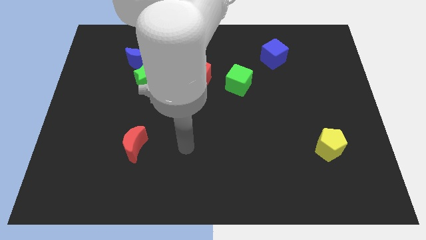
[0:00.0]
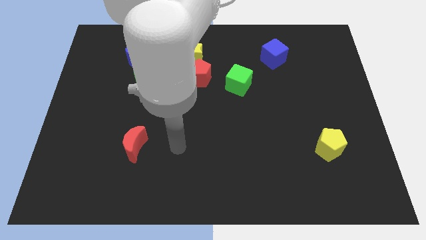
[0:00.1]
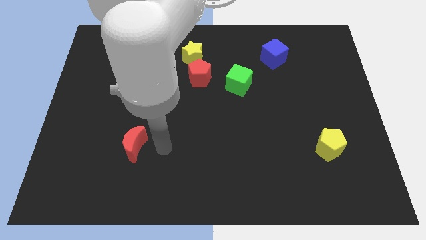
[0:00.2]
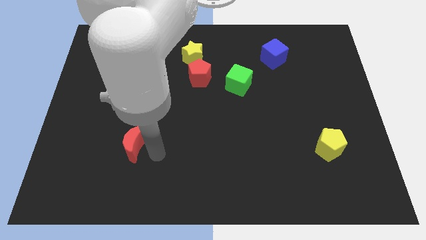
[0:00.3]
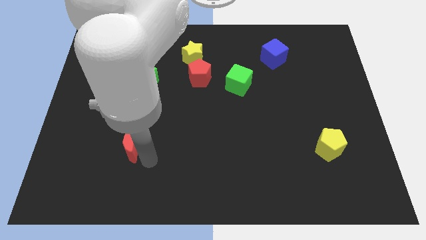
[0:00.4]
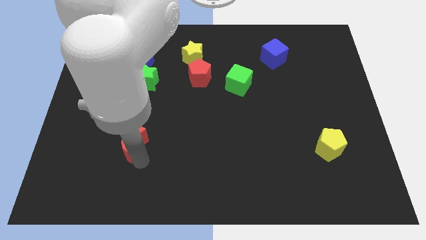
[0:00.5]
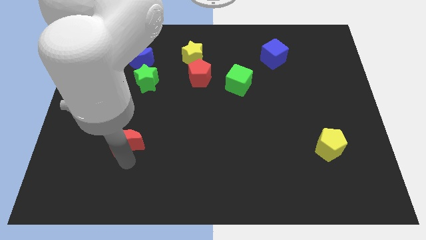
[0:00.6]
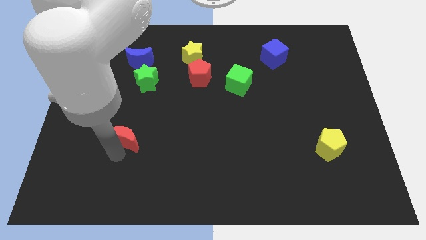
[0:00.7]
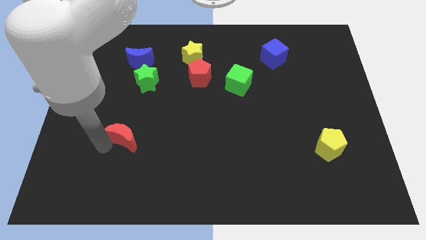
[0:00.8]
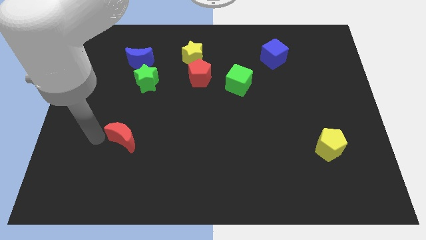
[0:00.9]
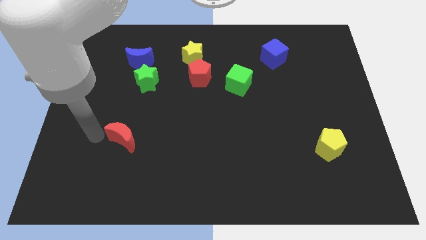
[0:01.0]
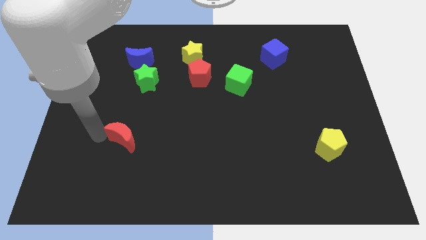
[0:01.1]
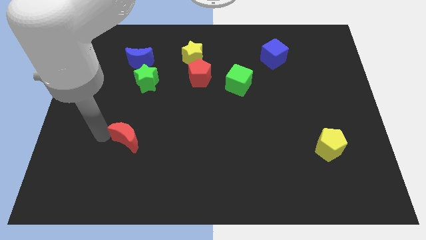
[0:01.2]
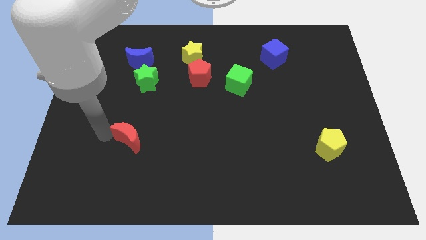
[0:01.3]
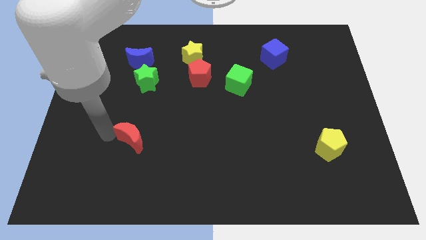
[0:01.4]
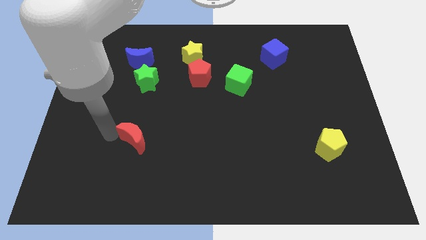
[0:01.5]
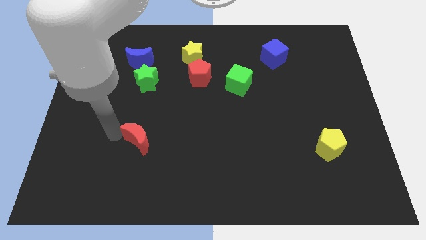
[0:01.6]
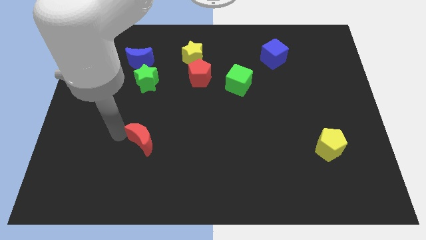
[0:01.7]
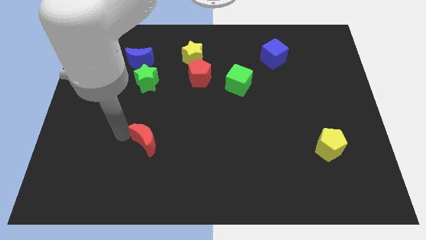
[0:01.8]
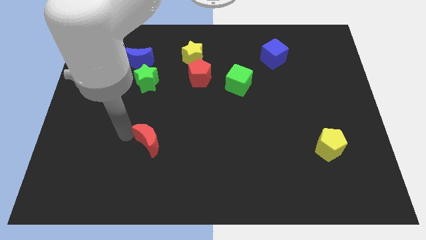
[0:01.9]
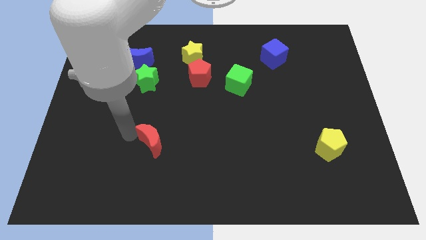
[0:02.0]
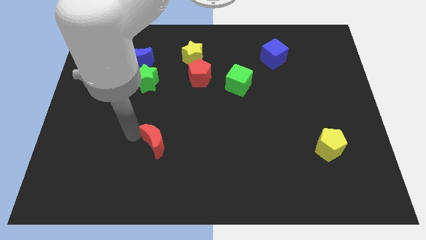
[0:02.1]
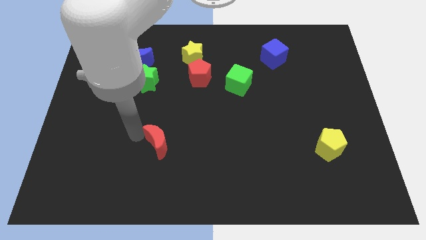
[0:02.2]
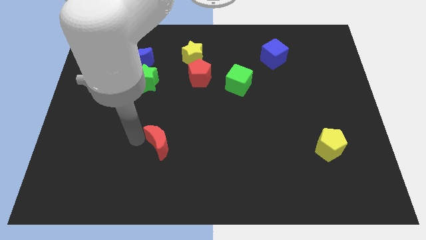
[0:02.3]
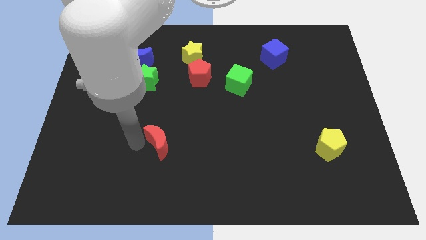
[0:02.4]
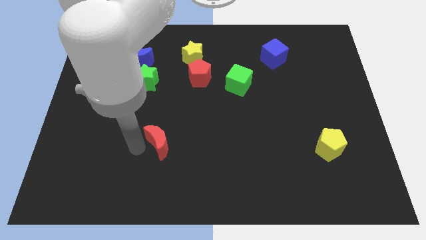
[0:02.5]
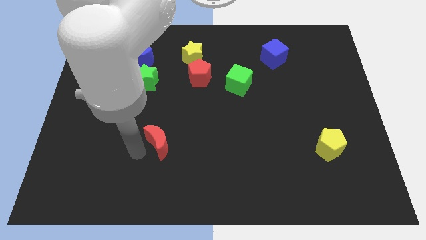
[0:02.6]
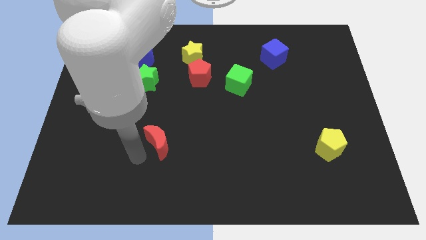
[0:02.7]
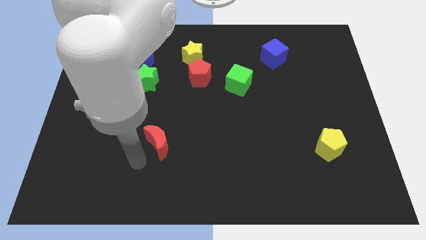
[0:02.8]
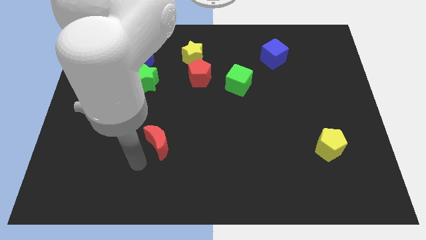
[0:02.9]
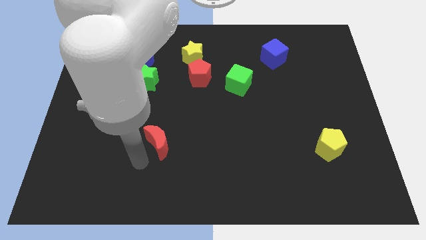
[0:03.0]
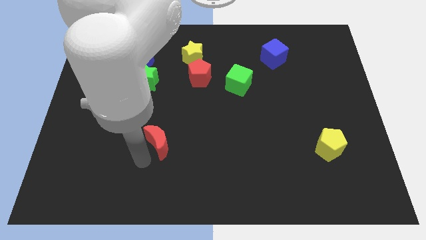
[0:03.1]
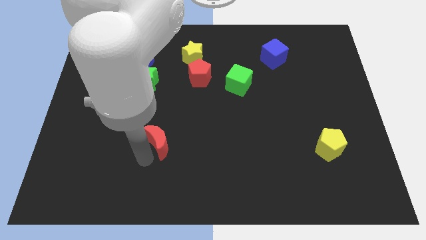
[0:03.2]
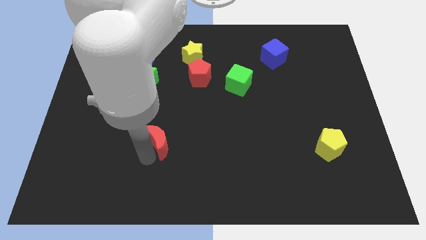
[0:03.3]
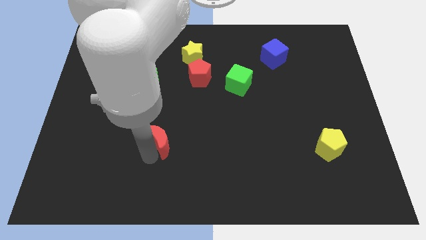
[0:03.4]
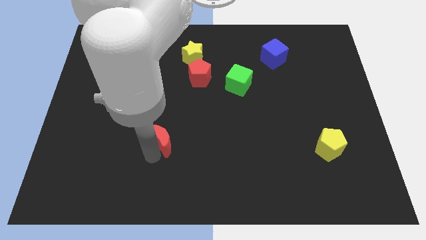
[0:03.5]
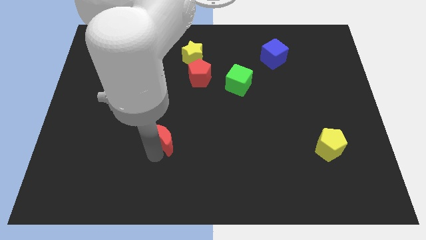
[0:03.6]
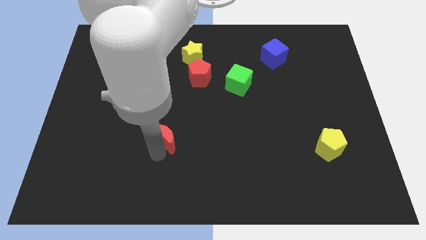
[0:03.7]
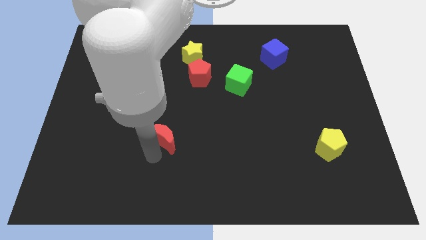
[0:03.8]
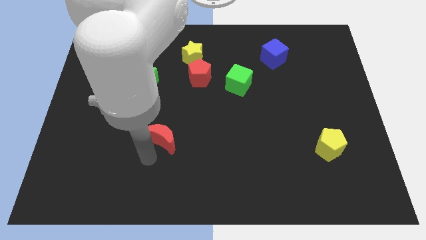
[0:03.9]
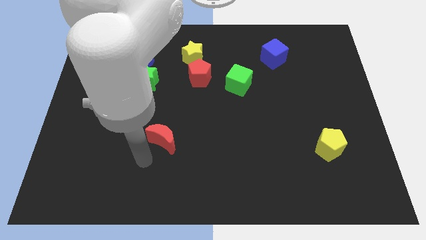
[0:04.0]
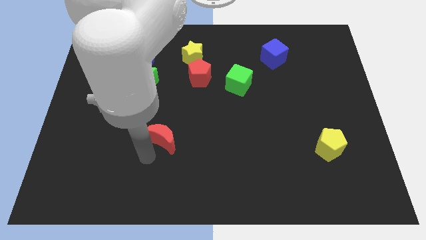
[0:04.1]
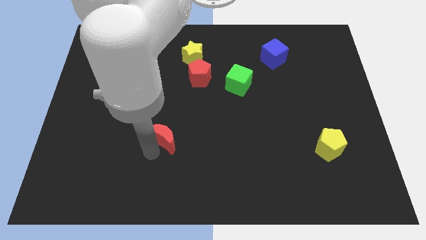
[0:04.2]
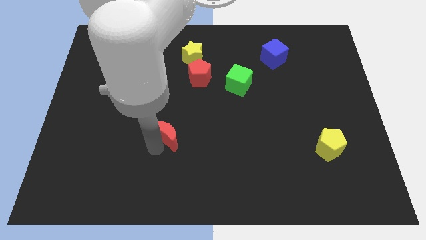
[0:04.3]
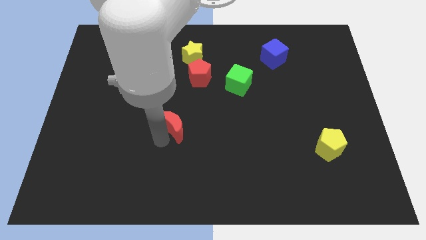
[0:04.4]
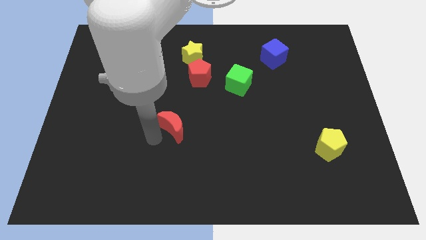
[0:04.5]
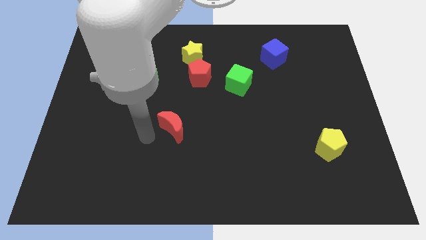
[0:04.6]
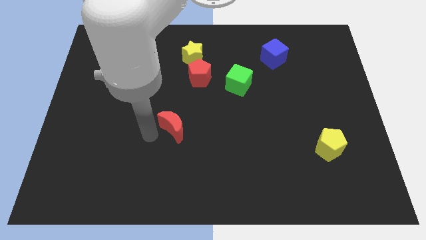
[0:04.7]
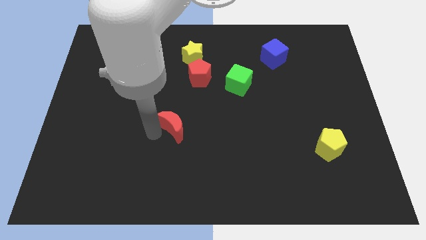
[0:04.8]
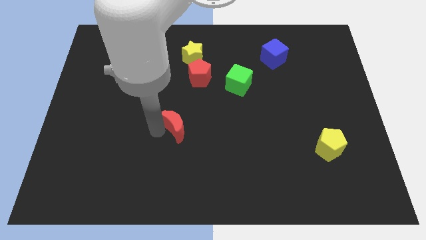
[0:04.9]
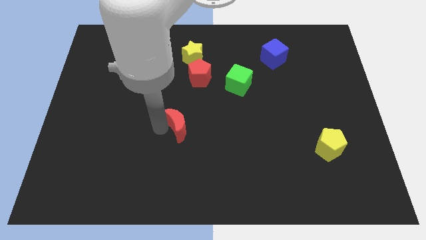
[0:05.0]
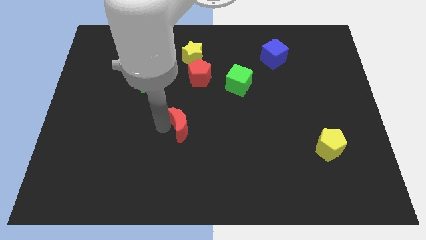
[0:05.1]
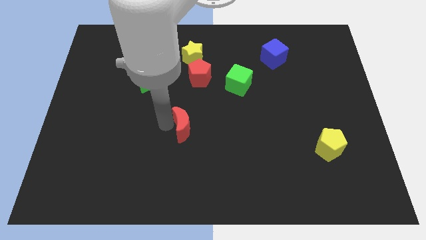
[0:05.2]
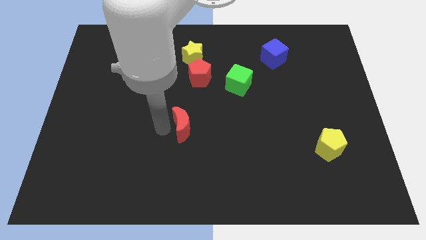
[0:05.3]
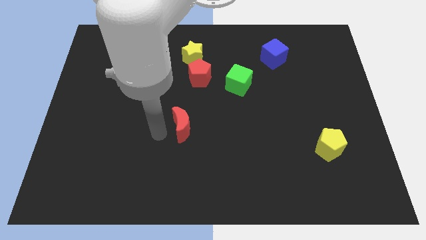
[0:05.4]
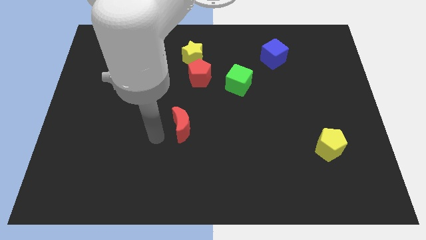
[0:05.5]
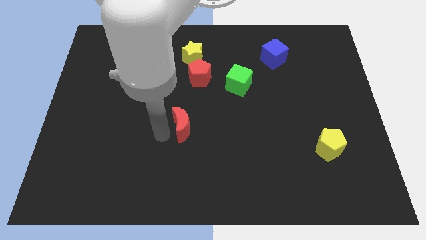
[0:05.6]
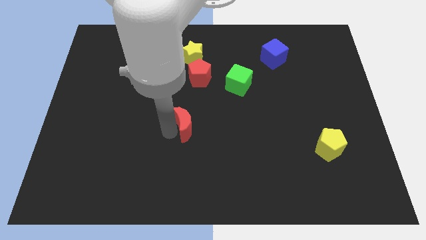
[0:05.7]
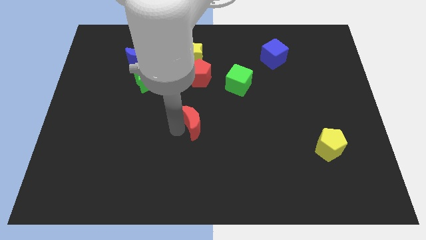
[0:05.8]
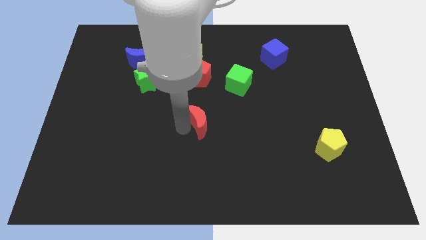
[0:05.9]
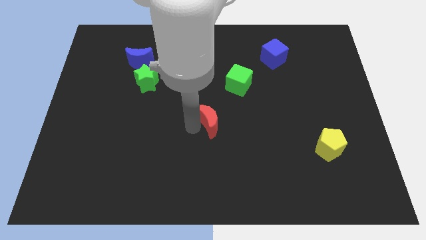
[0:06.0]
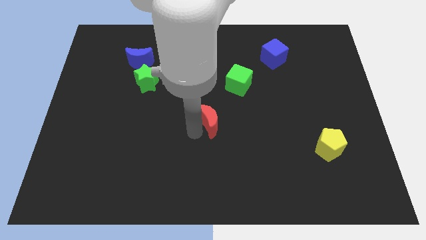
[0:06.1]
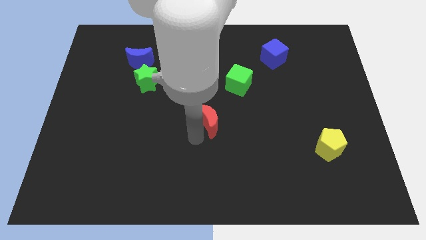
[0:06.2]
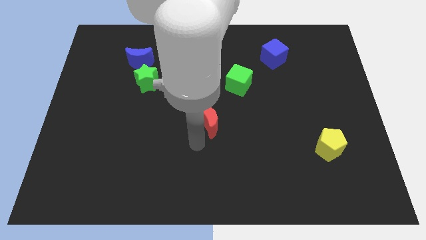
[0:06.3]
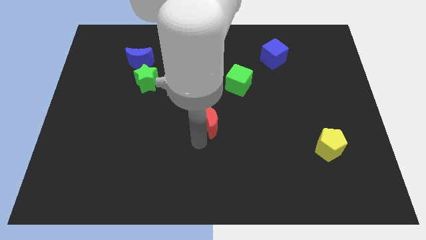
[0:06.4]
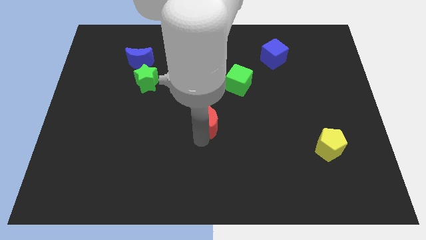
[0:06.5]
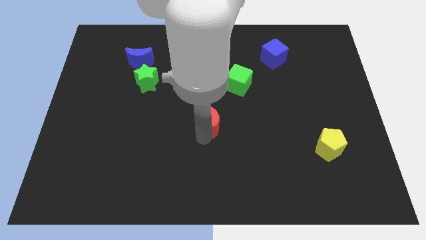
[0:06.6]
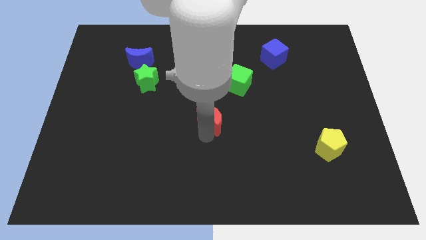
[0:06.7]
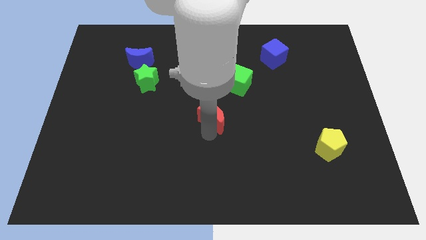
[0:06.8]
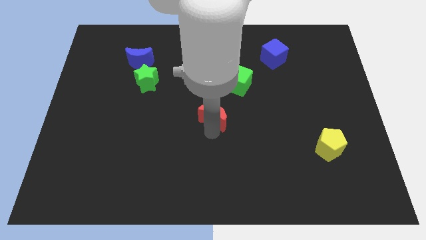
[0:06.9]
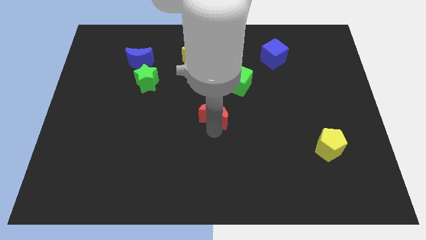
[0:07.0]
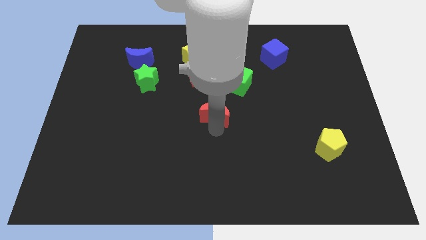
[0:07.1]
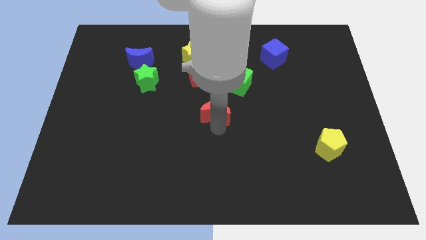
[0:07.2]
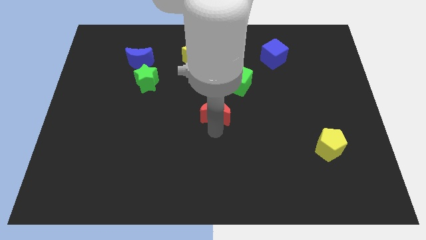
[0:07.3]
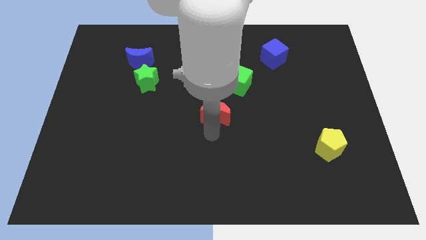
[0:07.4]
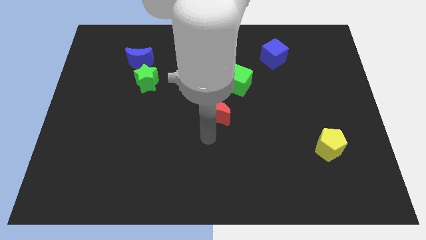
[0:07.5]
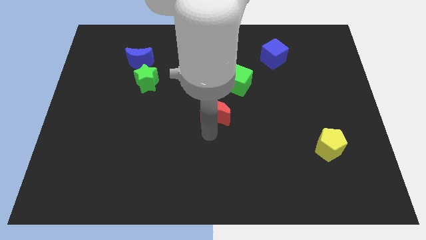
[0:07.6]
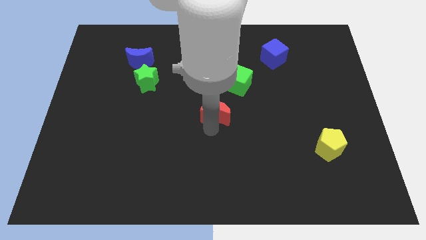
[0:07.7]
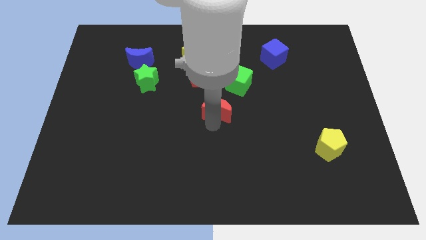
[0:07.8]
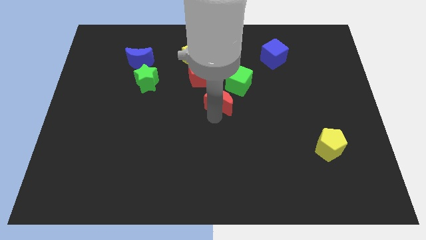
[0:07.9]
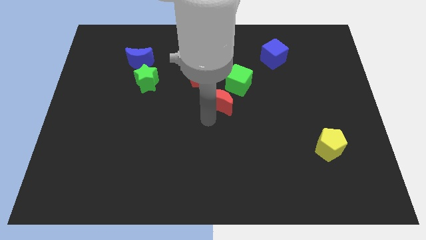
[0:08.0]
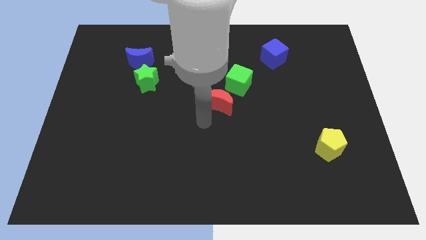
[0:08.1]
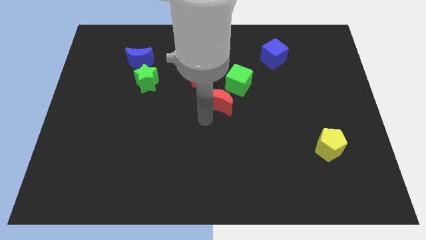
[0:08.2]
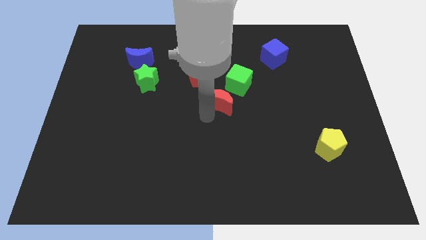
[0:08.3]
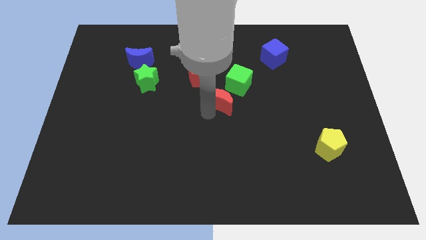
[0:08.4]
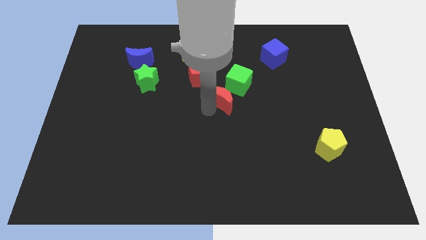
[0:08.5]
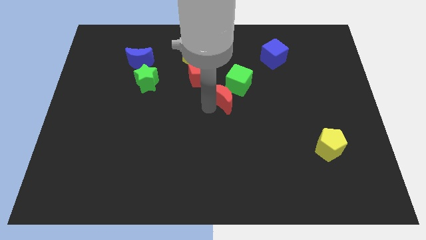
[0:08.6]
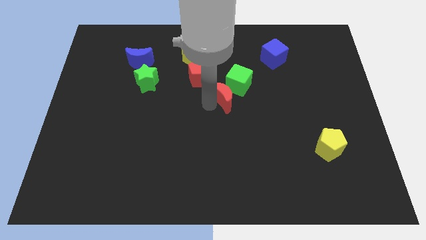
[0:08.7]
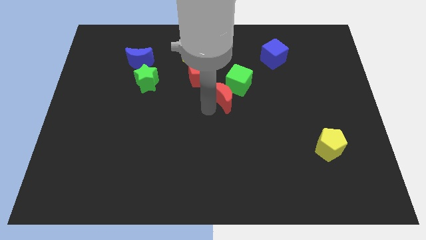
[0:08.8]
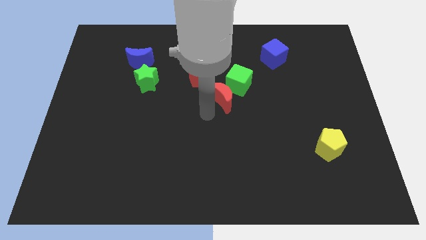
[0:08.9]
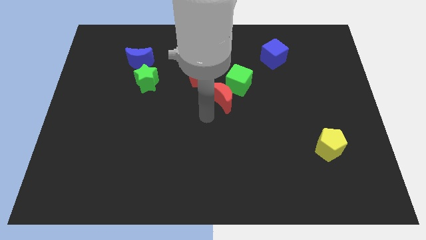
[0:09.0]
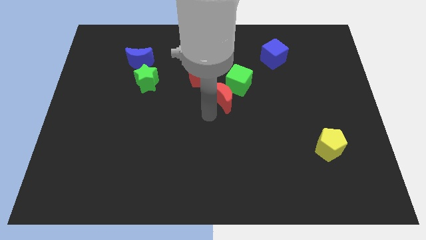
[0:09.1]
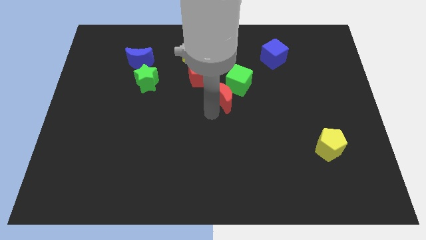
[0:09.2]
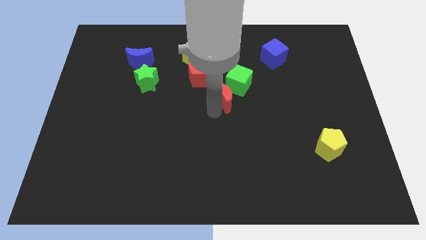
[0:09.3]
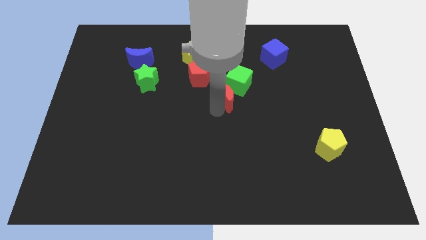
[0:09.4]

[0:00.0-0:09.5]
move the red moon close to the green cube
